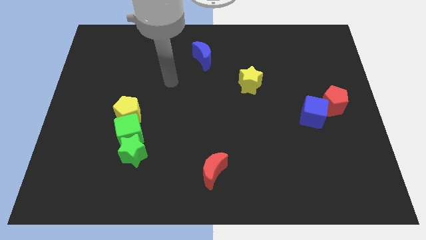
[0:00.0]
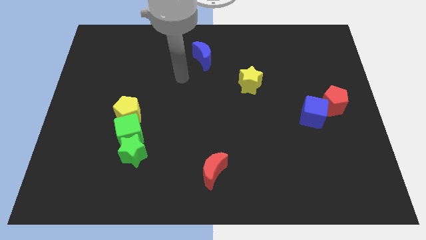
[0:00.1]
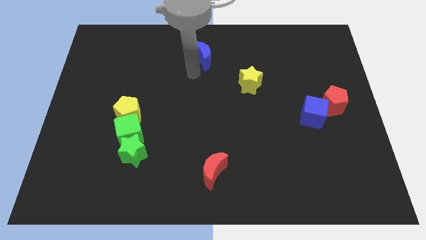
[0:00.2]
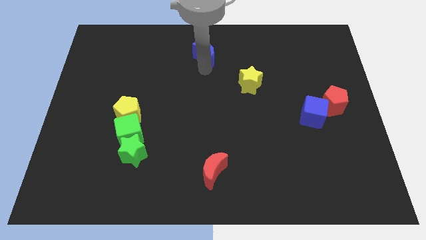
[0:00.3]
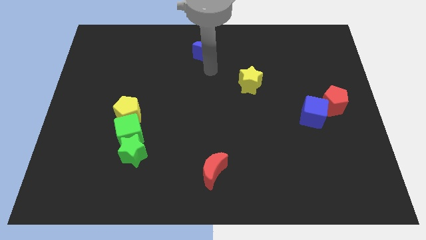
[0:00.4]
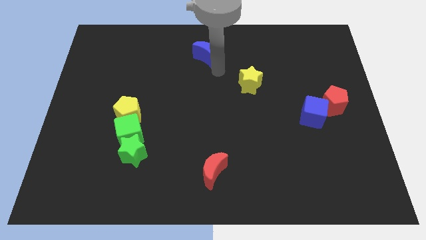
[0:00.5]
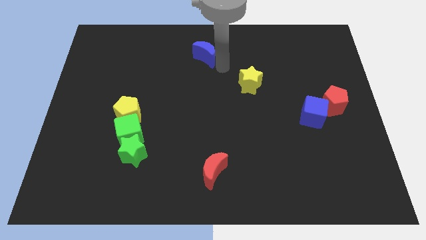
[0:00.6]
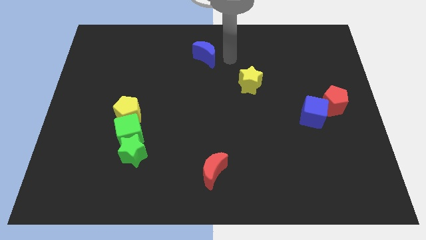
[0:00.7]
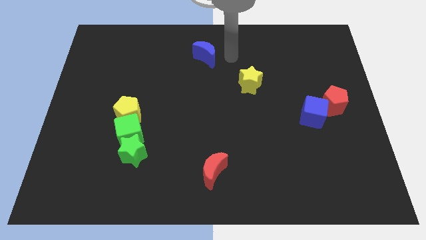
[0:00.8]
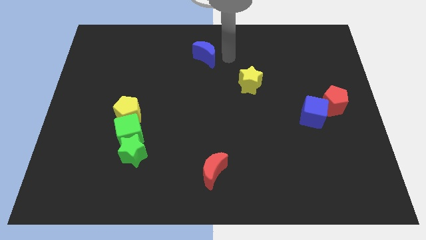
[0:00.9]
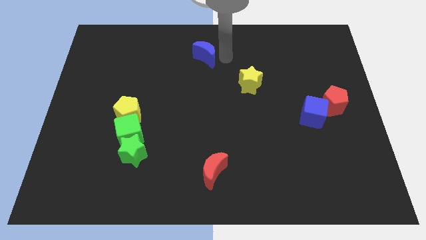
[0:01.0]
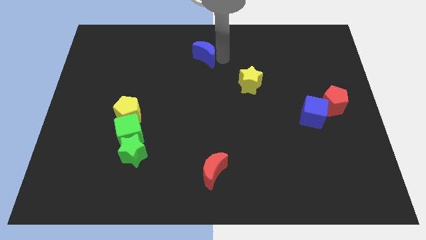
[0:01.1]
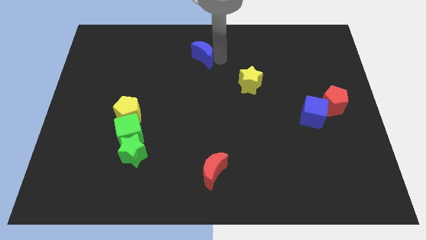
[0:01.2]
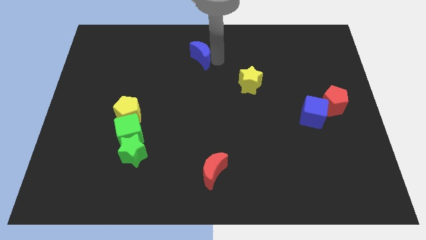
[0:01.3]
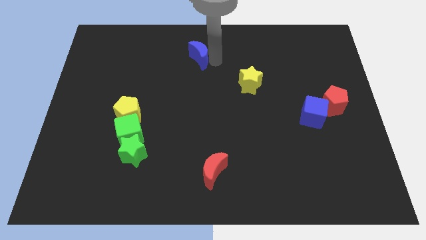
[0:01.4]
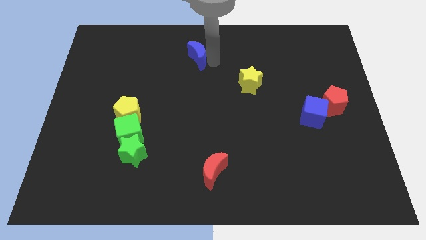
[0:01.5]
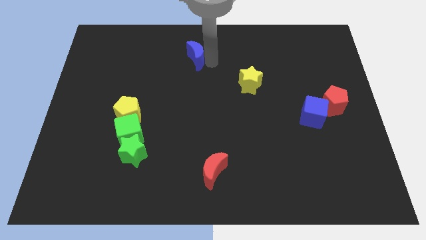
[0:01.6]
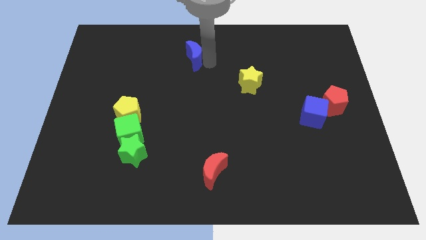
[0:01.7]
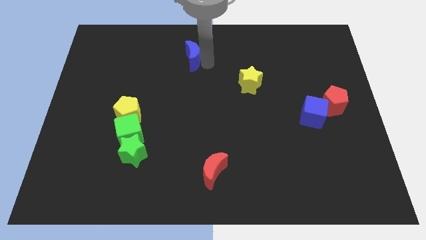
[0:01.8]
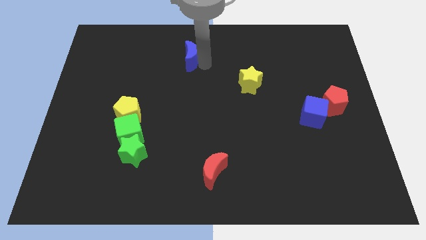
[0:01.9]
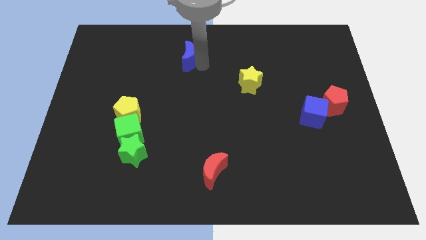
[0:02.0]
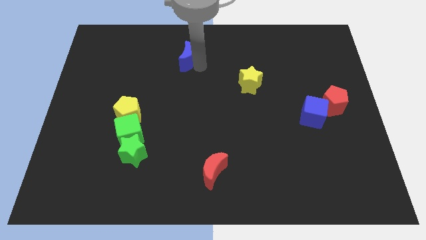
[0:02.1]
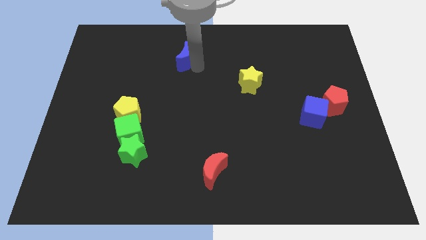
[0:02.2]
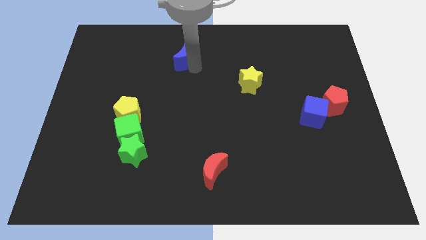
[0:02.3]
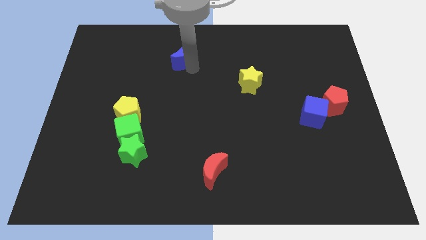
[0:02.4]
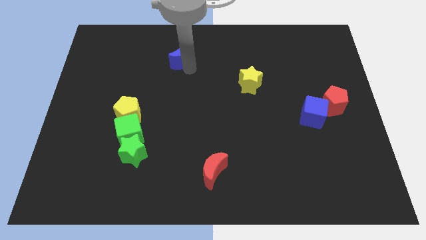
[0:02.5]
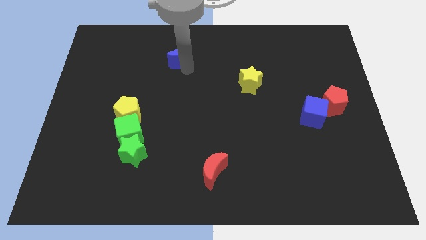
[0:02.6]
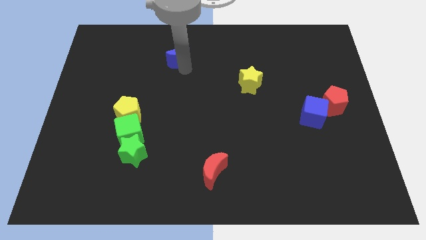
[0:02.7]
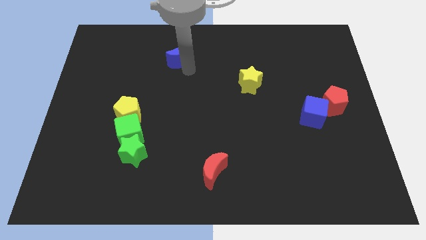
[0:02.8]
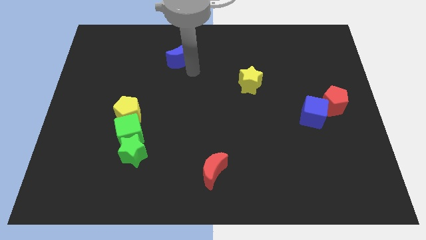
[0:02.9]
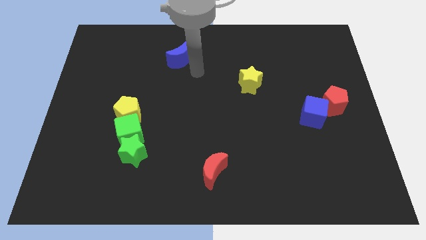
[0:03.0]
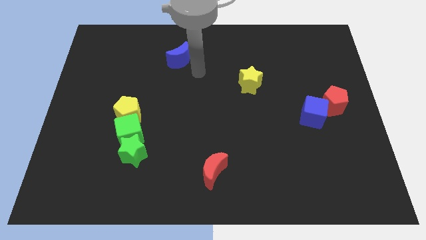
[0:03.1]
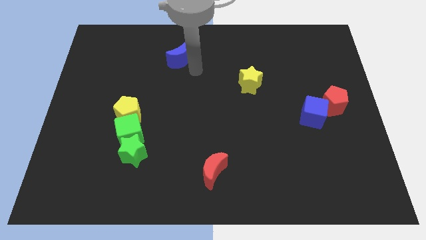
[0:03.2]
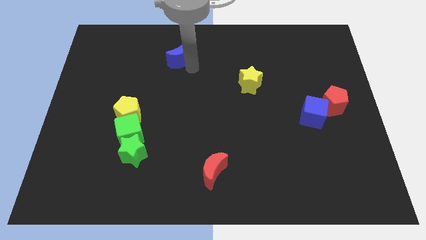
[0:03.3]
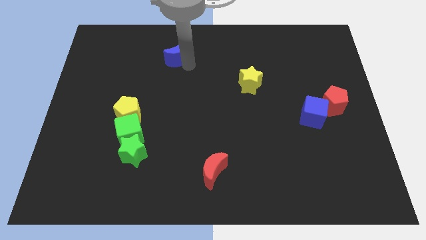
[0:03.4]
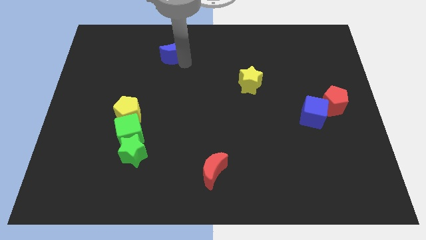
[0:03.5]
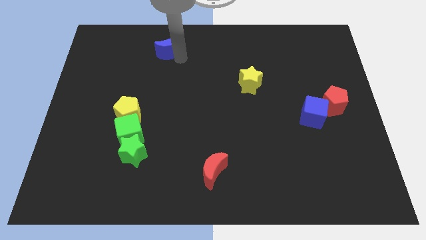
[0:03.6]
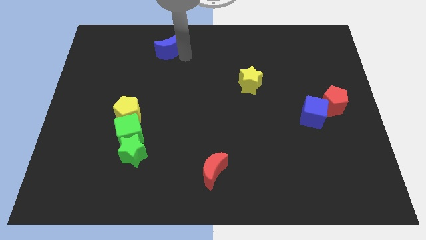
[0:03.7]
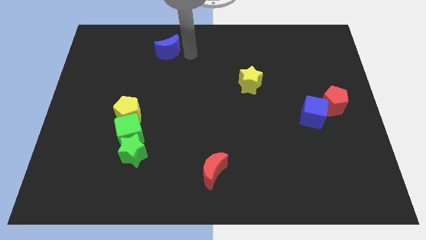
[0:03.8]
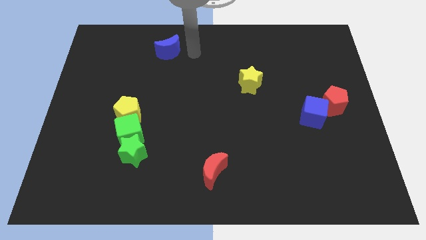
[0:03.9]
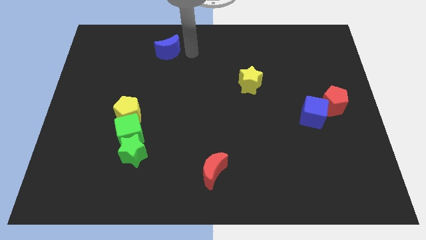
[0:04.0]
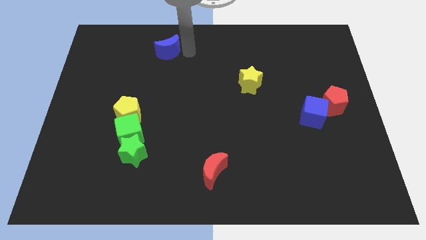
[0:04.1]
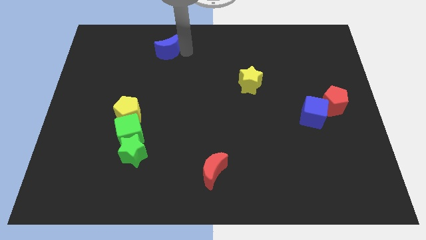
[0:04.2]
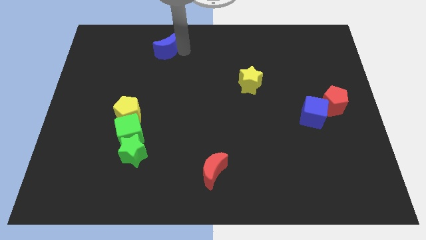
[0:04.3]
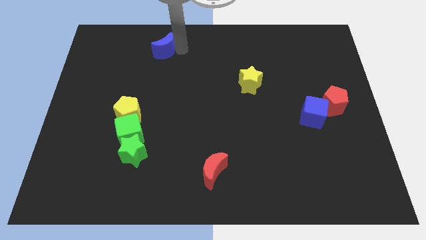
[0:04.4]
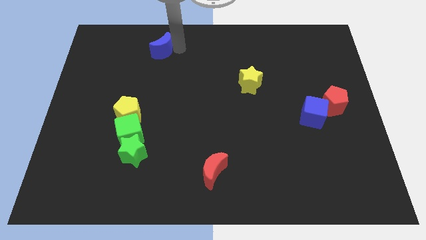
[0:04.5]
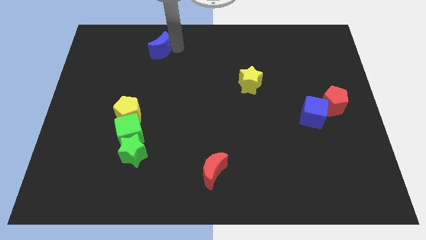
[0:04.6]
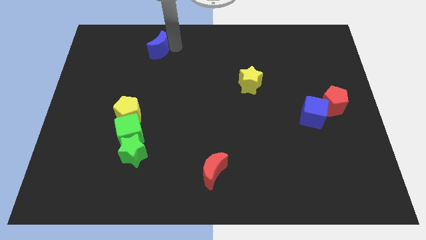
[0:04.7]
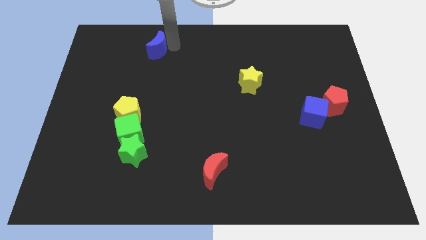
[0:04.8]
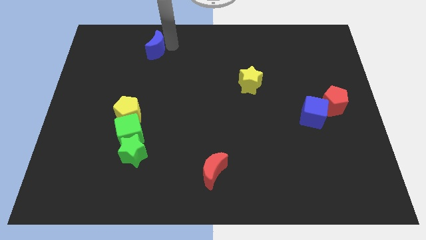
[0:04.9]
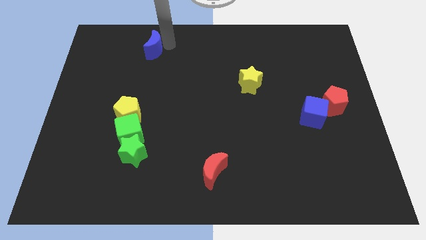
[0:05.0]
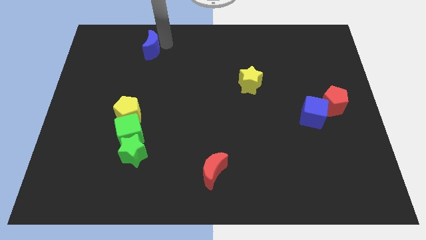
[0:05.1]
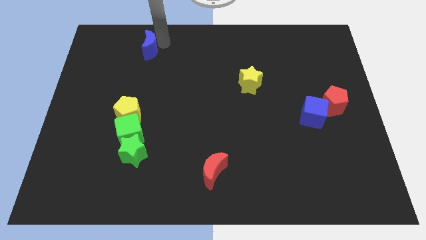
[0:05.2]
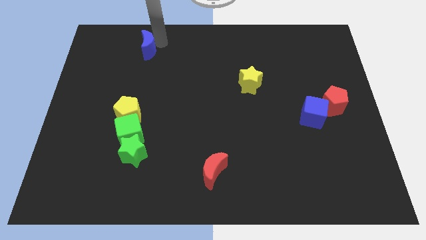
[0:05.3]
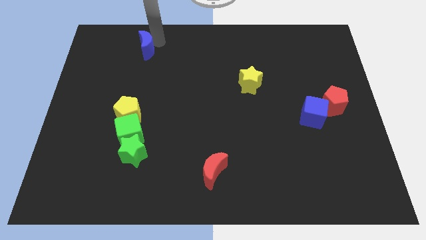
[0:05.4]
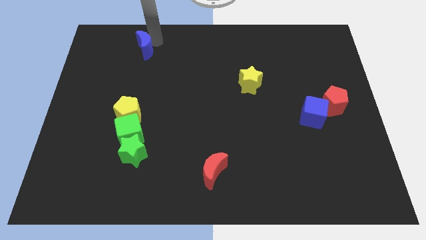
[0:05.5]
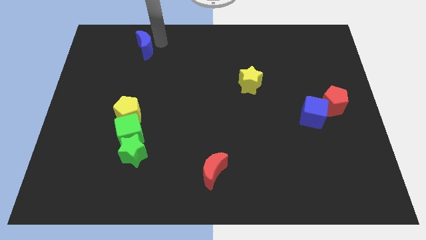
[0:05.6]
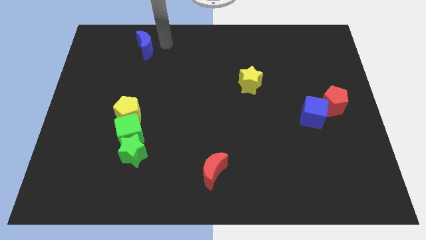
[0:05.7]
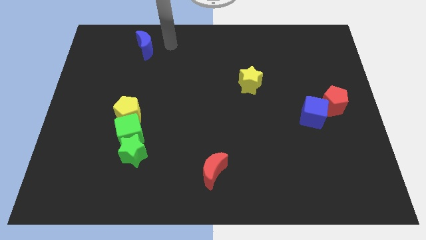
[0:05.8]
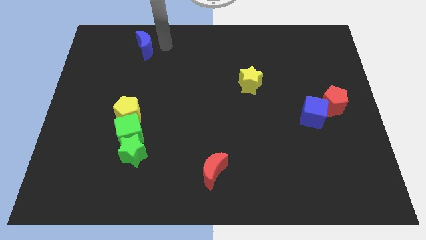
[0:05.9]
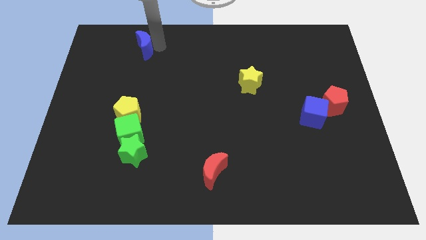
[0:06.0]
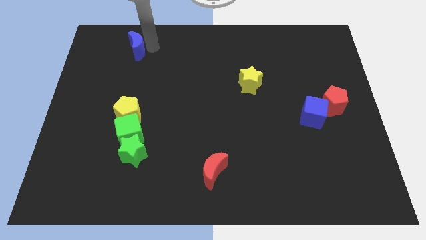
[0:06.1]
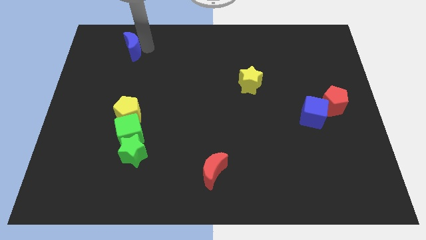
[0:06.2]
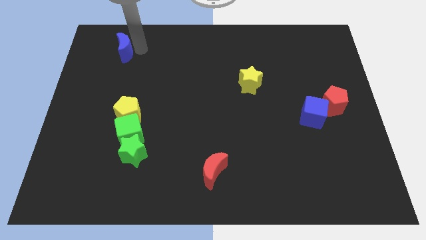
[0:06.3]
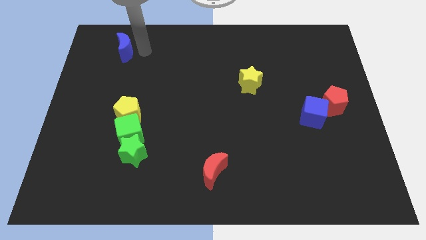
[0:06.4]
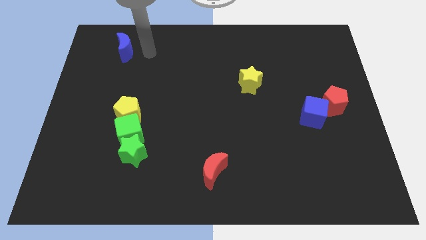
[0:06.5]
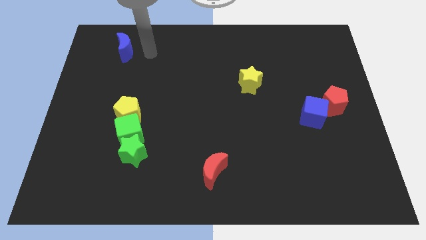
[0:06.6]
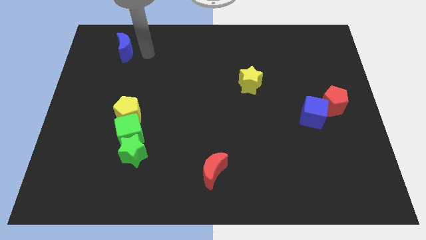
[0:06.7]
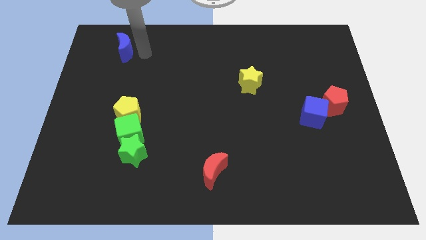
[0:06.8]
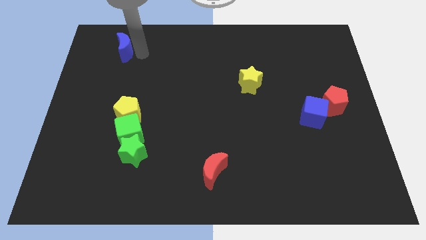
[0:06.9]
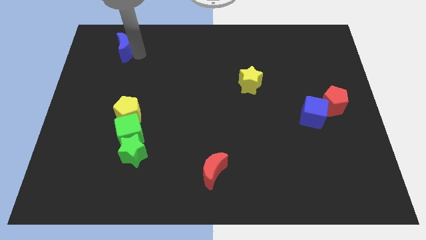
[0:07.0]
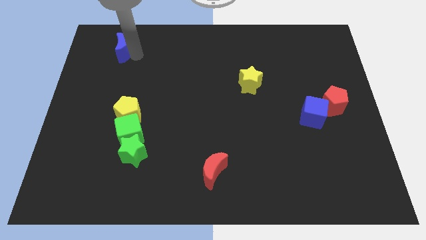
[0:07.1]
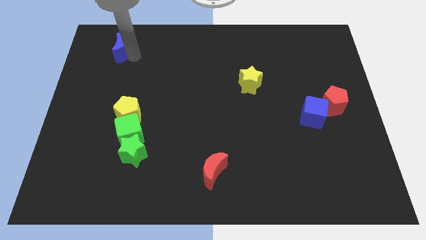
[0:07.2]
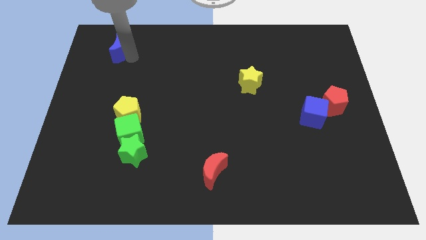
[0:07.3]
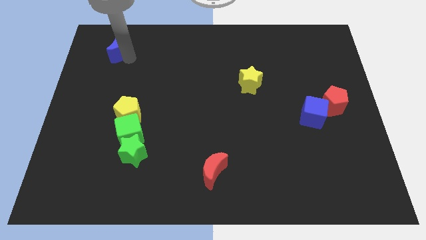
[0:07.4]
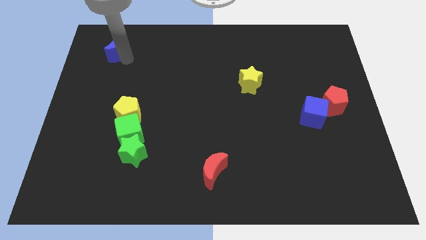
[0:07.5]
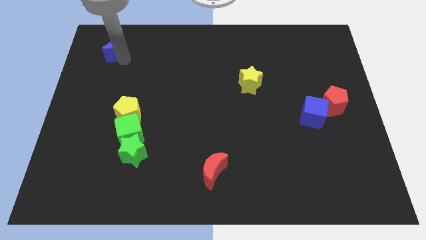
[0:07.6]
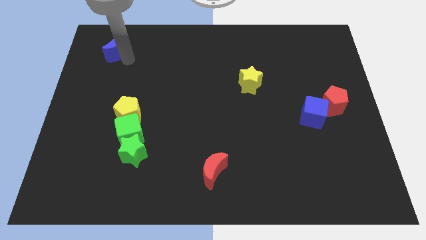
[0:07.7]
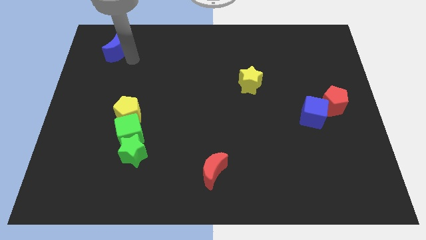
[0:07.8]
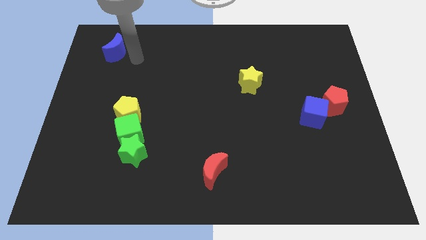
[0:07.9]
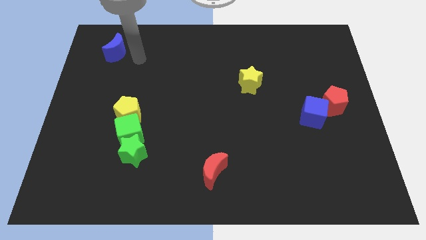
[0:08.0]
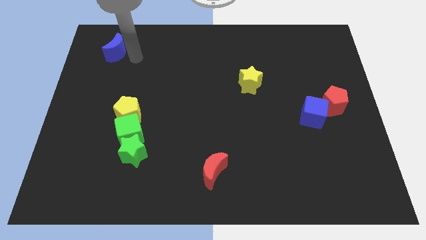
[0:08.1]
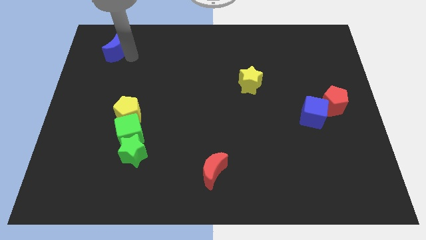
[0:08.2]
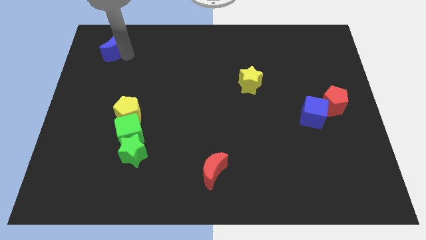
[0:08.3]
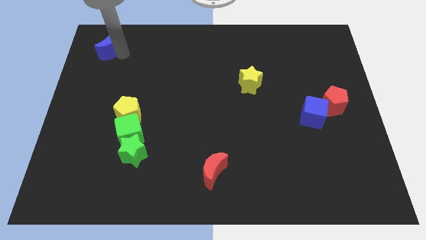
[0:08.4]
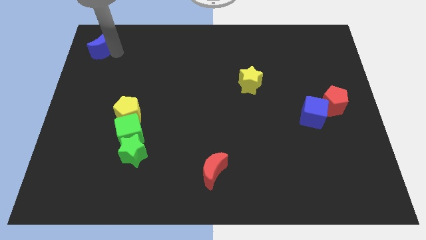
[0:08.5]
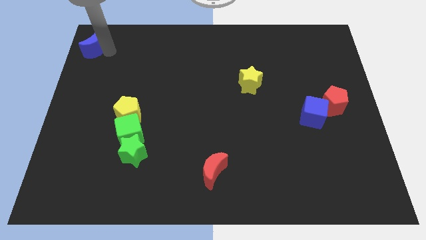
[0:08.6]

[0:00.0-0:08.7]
slide the blue moon to the upper left corner
